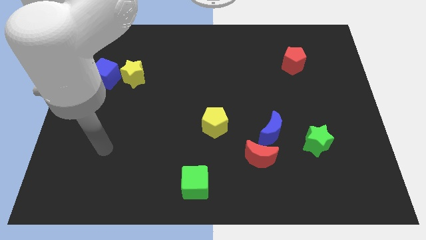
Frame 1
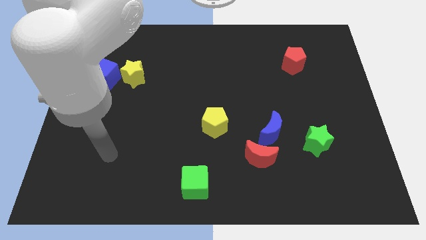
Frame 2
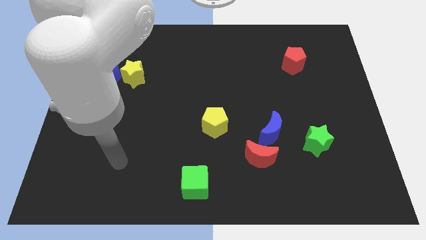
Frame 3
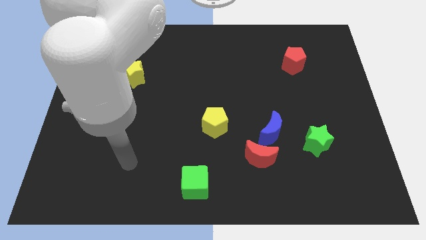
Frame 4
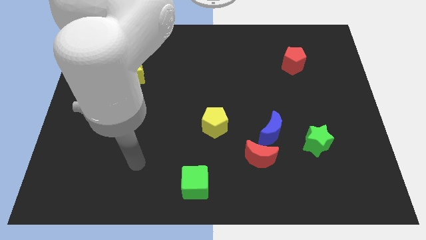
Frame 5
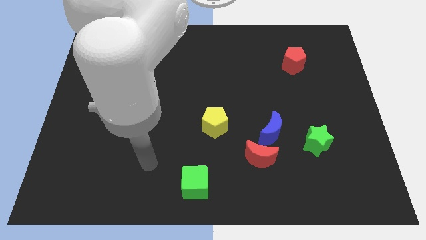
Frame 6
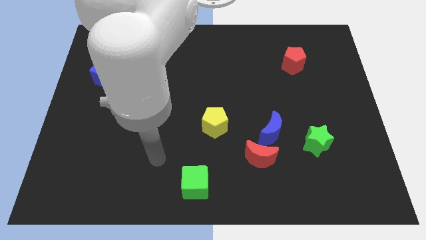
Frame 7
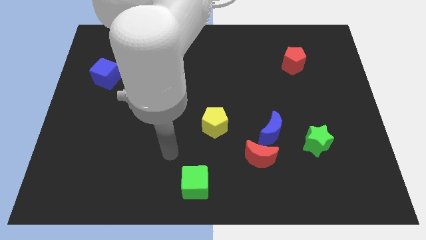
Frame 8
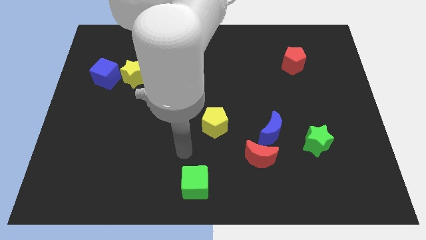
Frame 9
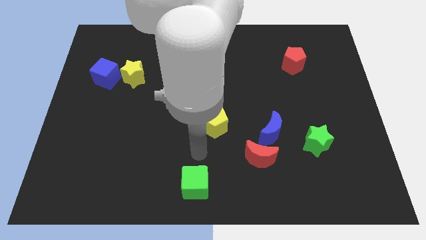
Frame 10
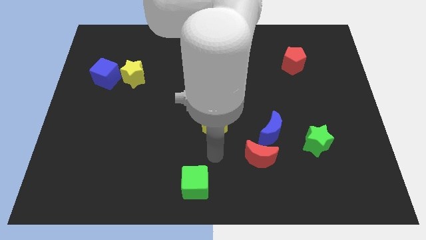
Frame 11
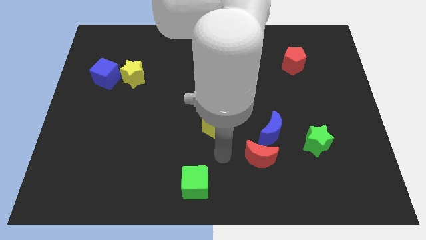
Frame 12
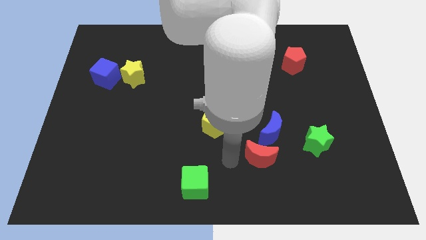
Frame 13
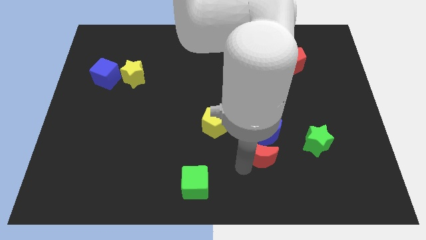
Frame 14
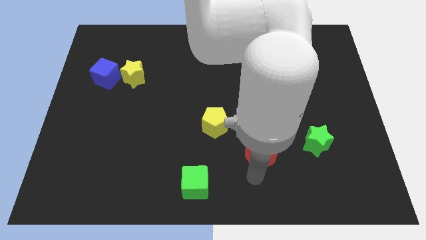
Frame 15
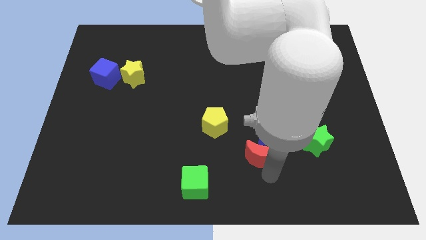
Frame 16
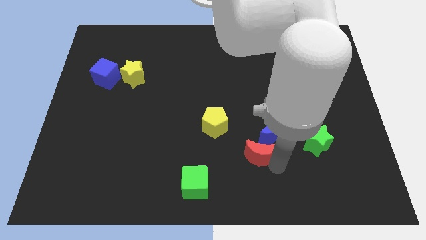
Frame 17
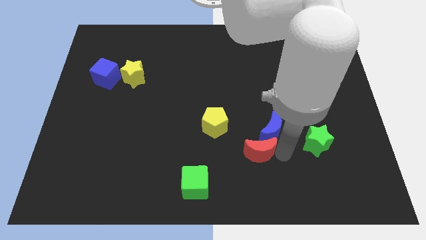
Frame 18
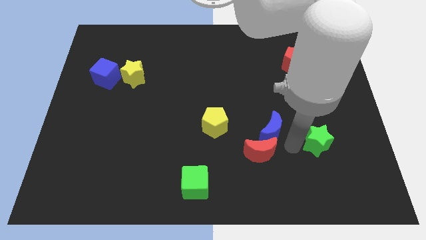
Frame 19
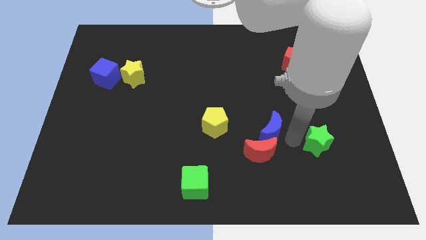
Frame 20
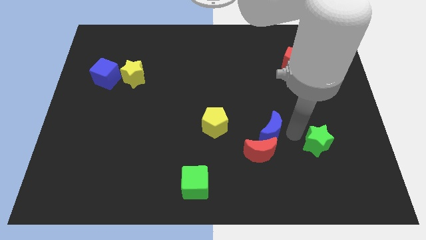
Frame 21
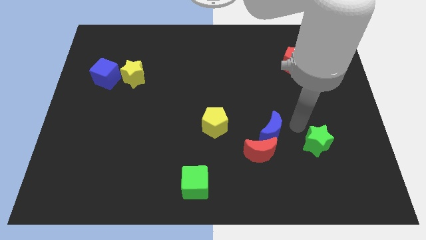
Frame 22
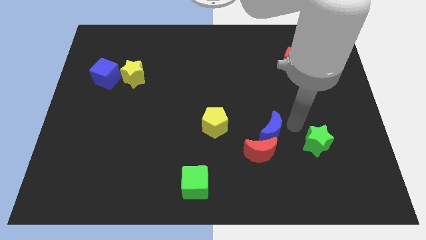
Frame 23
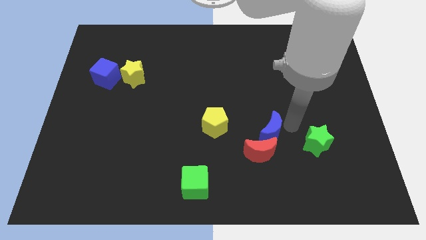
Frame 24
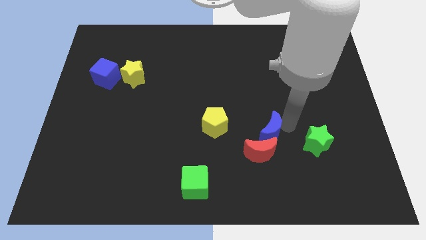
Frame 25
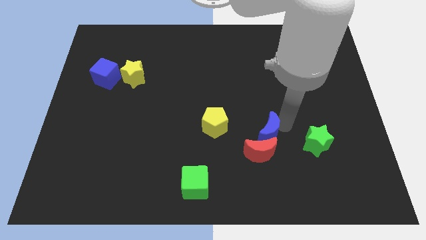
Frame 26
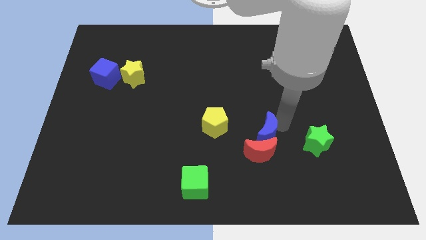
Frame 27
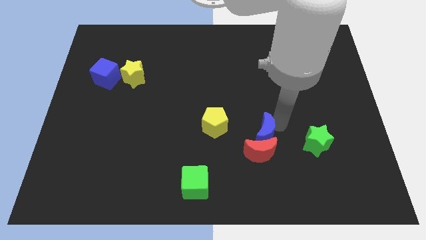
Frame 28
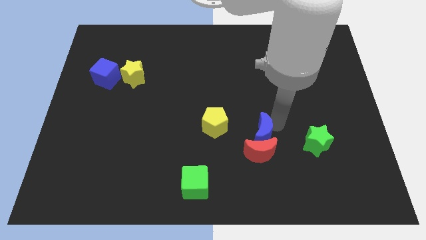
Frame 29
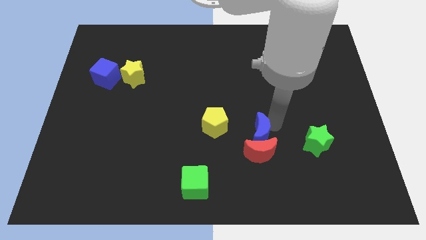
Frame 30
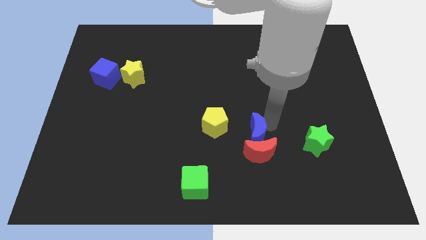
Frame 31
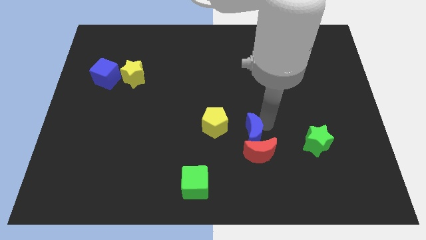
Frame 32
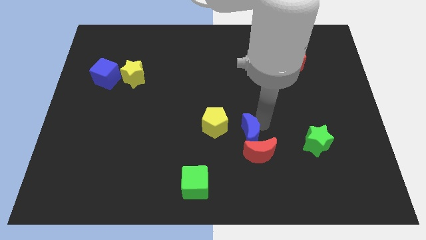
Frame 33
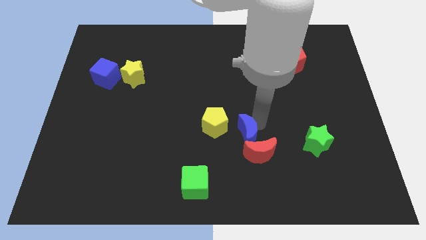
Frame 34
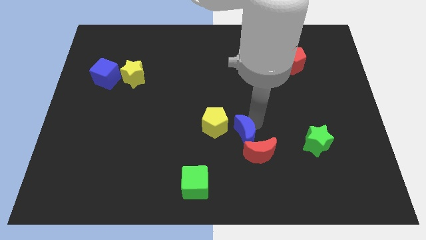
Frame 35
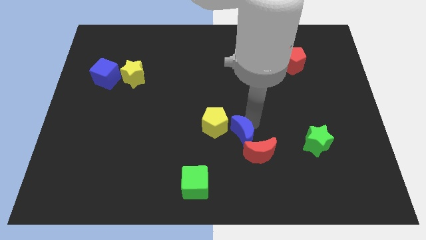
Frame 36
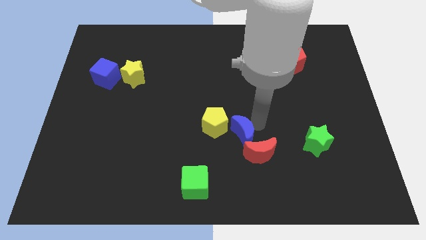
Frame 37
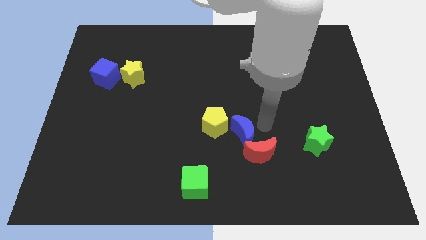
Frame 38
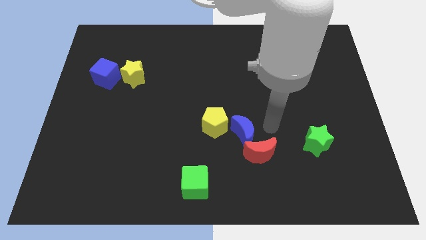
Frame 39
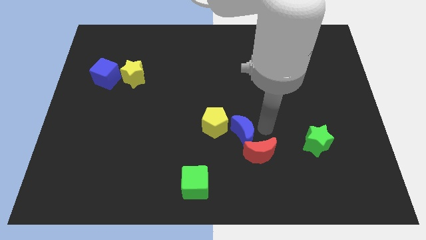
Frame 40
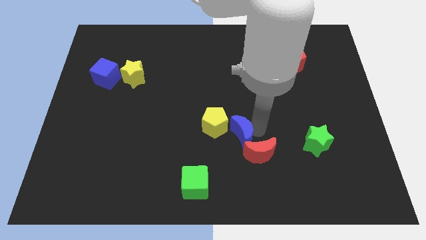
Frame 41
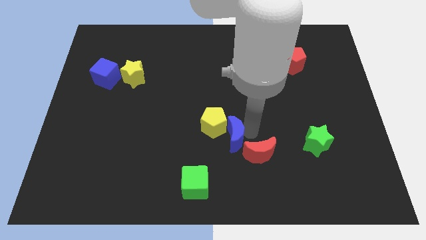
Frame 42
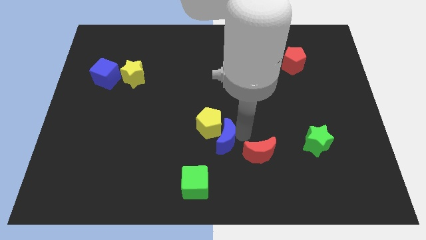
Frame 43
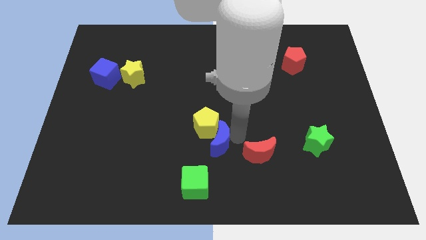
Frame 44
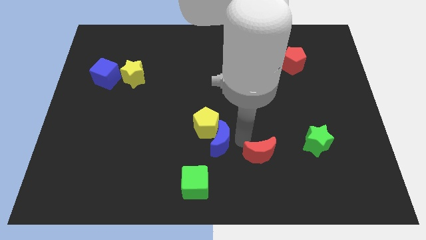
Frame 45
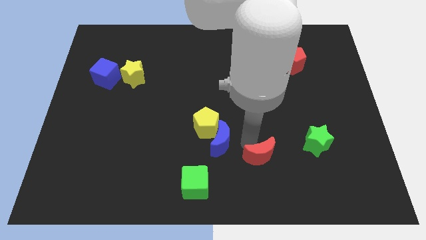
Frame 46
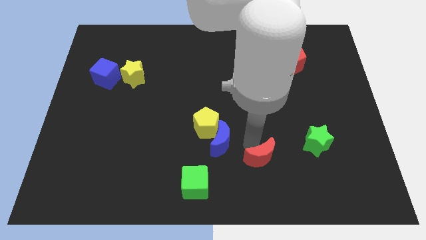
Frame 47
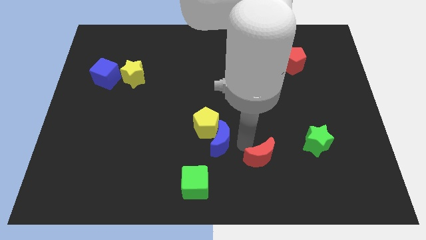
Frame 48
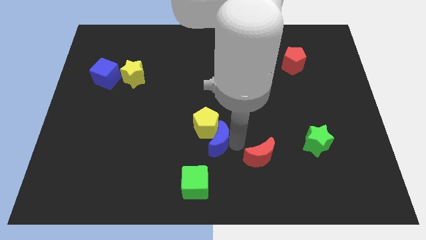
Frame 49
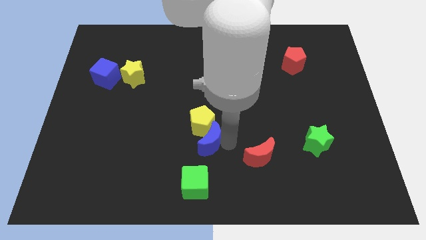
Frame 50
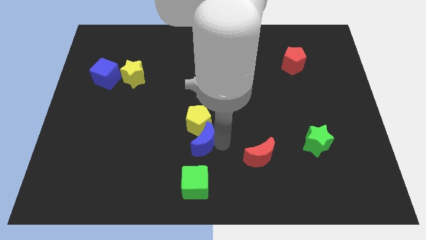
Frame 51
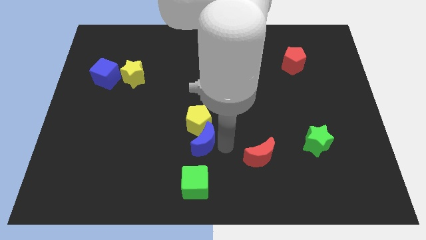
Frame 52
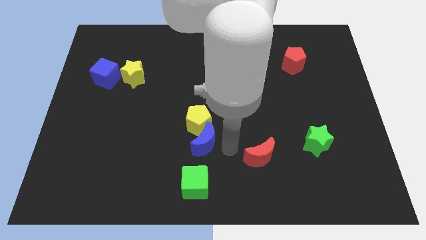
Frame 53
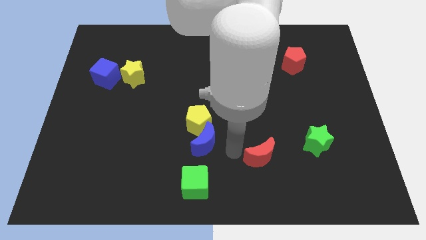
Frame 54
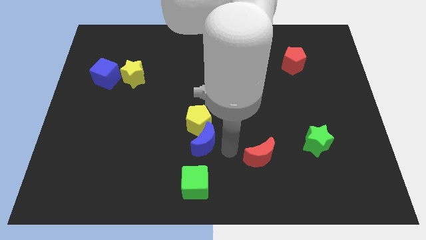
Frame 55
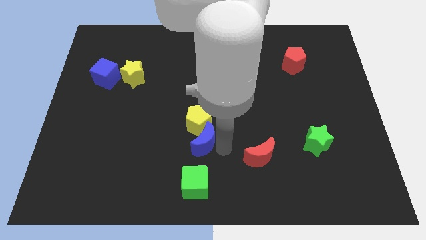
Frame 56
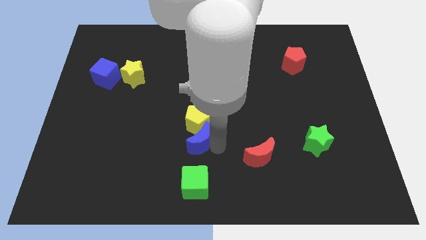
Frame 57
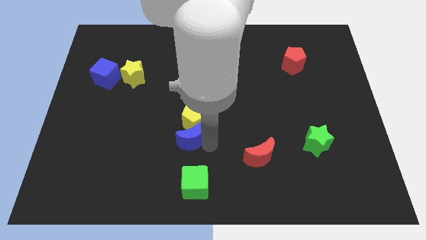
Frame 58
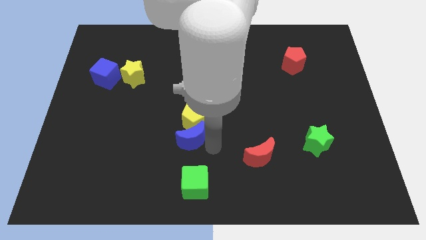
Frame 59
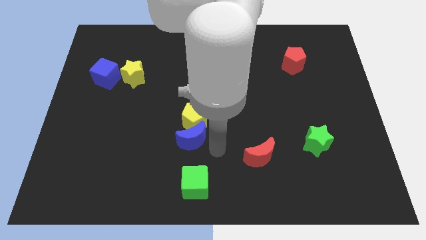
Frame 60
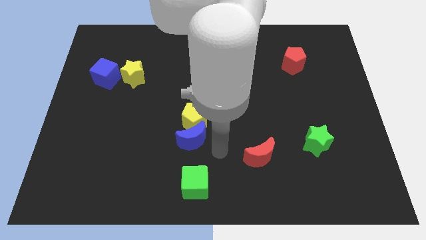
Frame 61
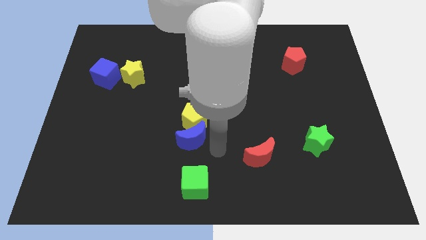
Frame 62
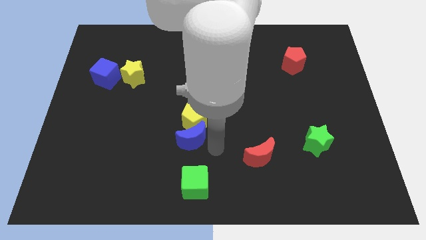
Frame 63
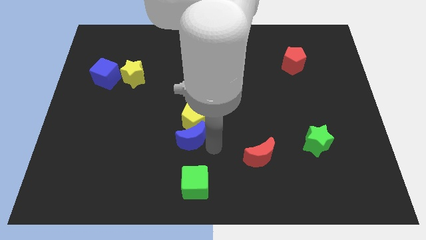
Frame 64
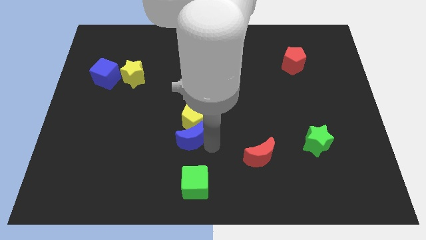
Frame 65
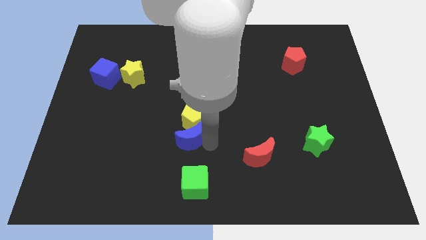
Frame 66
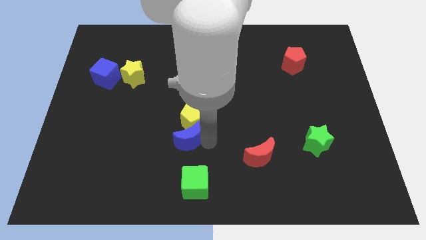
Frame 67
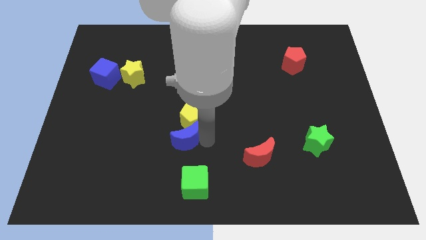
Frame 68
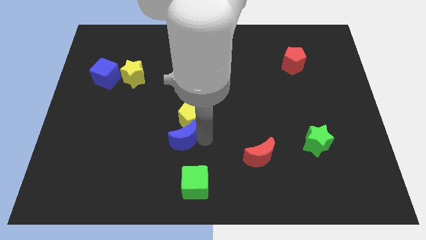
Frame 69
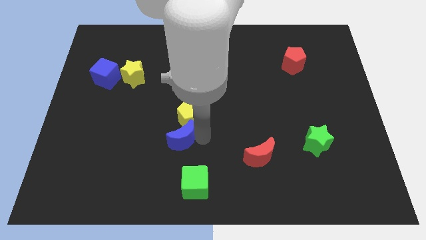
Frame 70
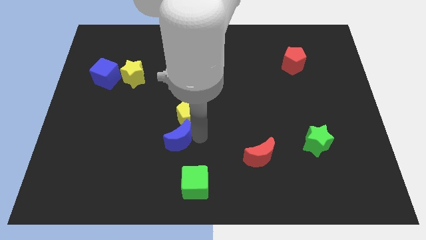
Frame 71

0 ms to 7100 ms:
move the blue moon to the left

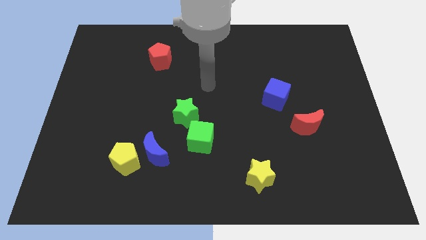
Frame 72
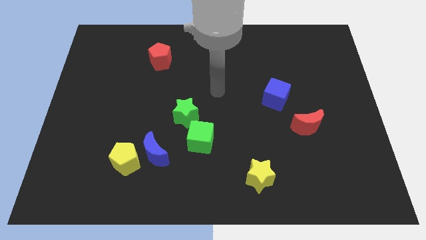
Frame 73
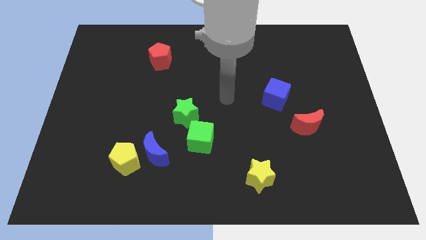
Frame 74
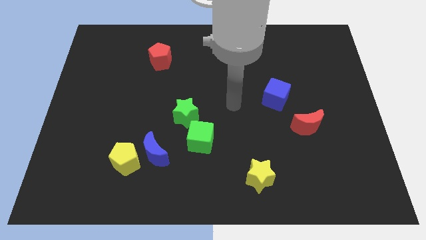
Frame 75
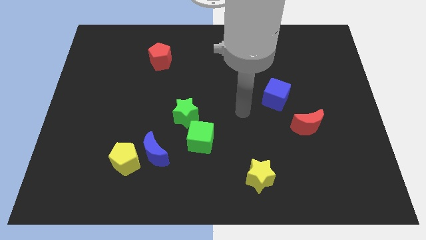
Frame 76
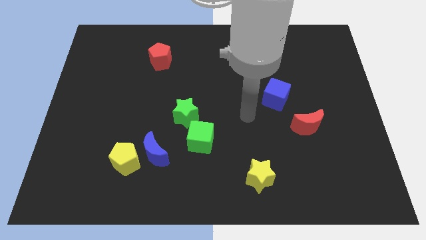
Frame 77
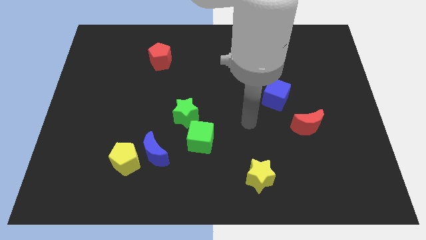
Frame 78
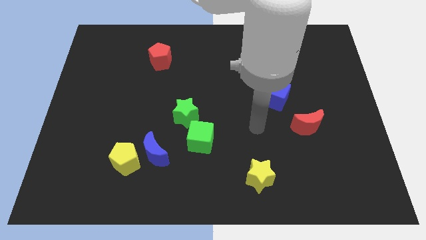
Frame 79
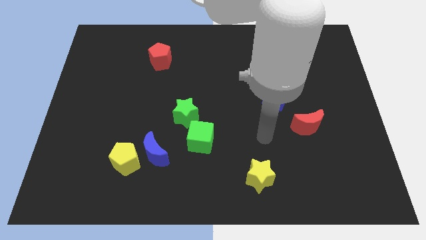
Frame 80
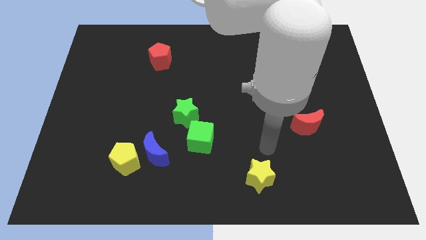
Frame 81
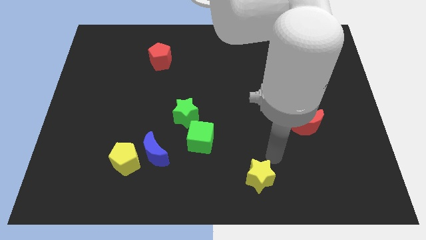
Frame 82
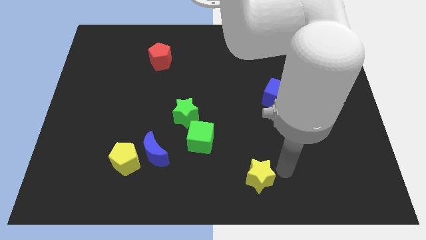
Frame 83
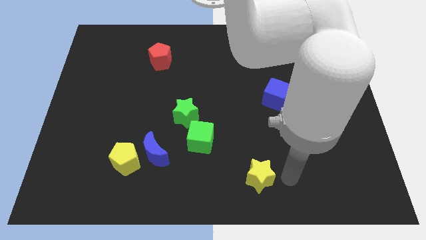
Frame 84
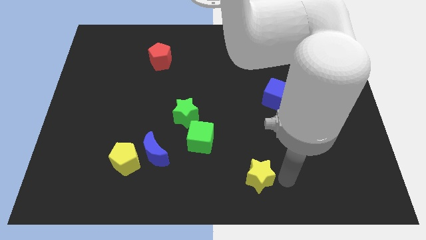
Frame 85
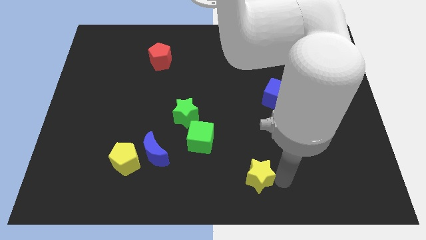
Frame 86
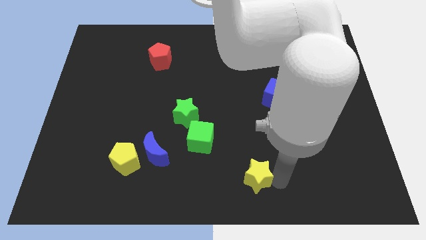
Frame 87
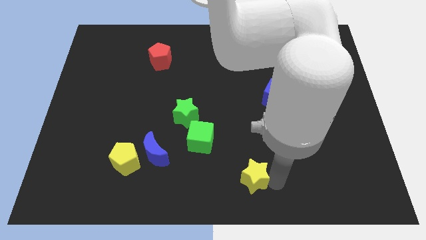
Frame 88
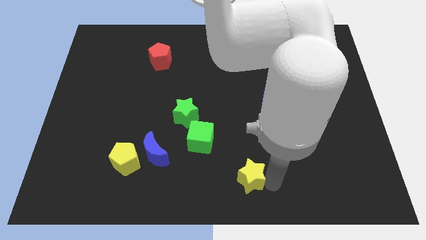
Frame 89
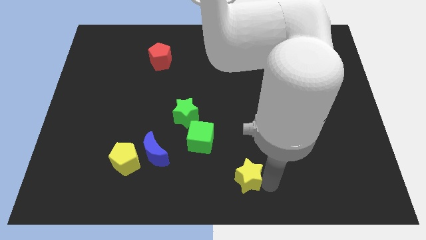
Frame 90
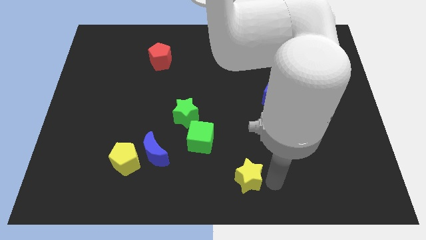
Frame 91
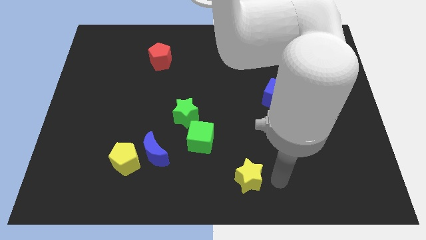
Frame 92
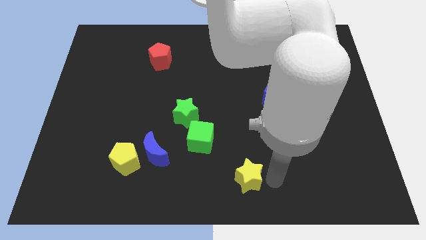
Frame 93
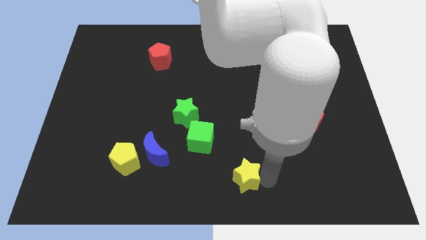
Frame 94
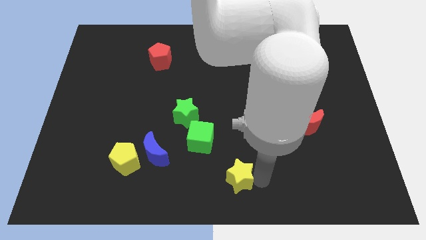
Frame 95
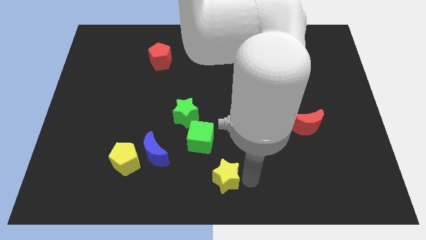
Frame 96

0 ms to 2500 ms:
move the yellow star to the left slightly
